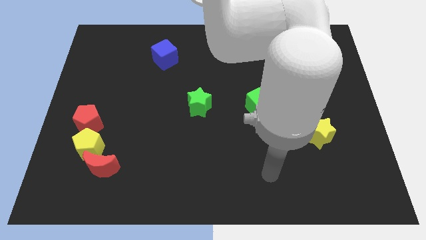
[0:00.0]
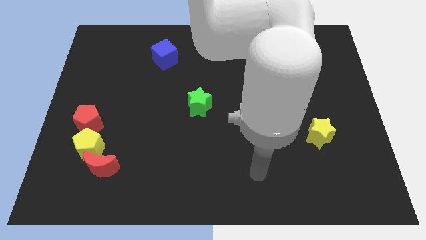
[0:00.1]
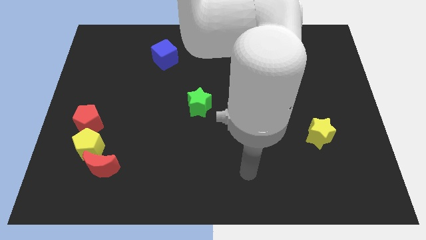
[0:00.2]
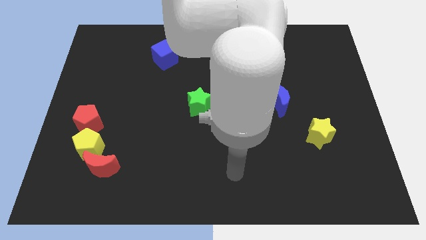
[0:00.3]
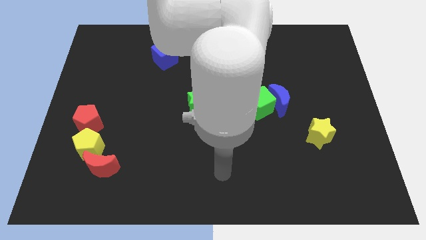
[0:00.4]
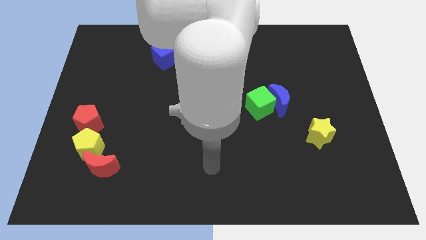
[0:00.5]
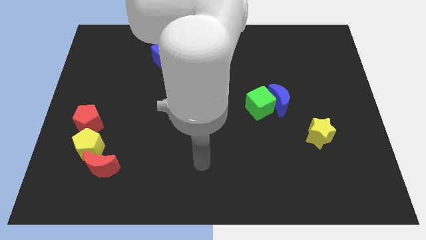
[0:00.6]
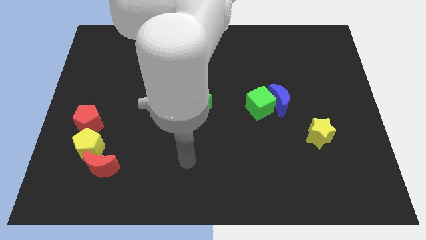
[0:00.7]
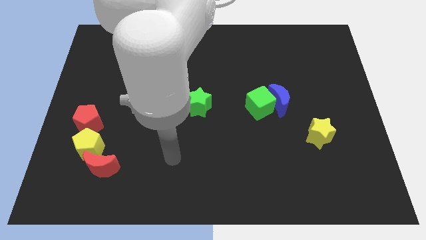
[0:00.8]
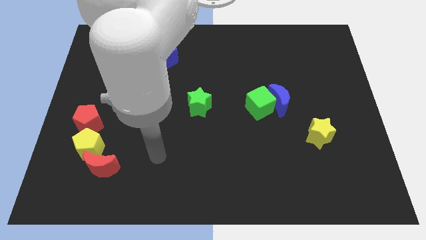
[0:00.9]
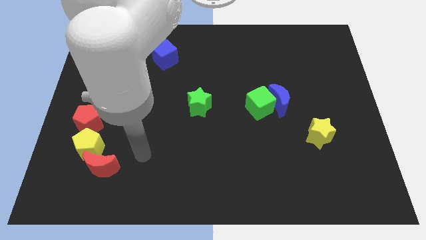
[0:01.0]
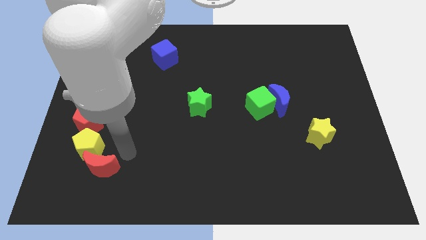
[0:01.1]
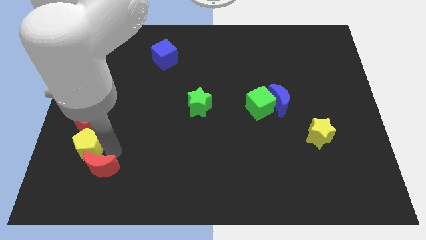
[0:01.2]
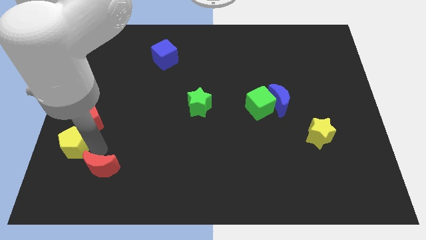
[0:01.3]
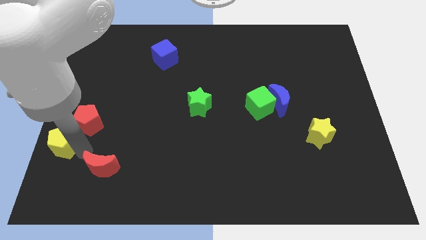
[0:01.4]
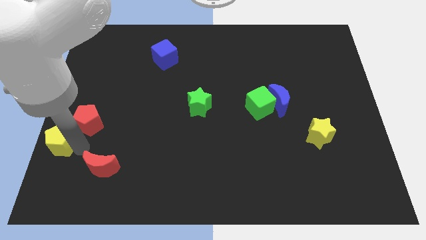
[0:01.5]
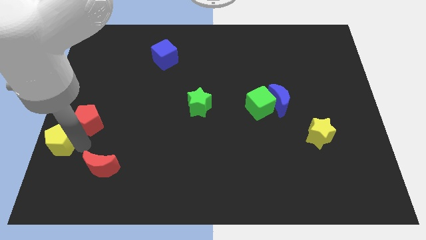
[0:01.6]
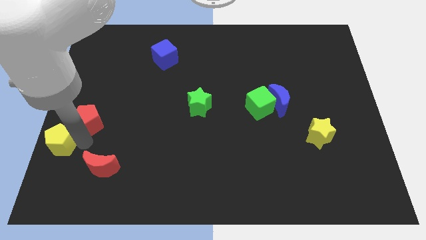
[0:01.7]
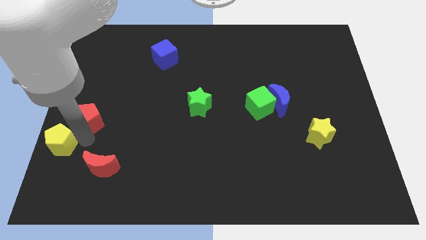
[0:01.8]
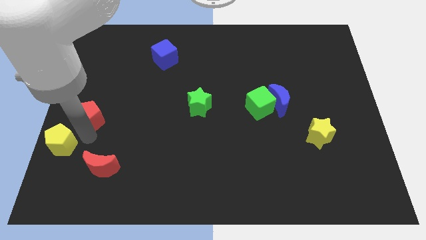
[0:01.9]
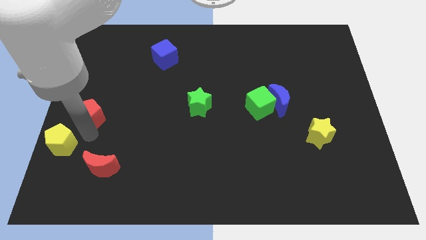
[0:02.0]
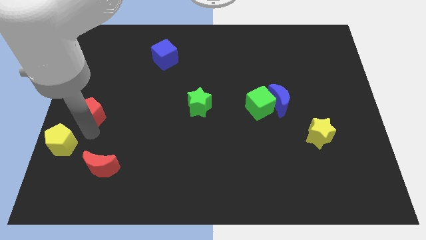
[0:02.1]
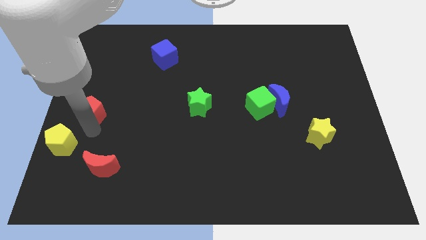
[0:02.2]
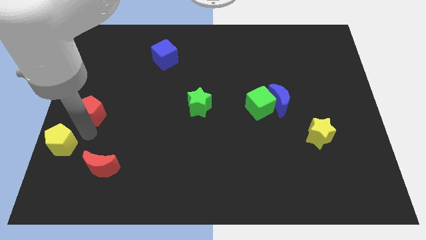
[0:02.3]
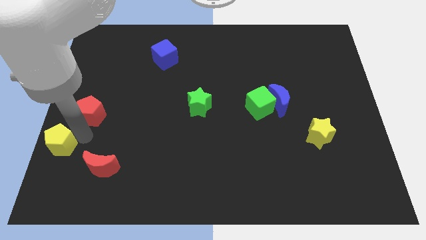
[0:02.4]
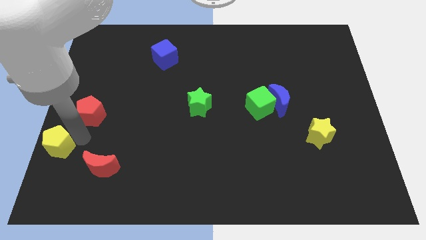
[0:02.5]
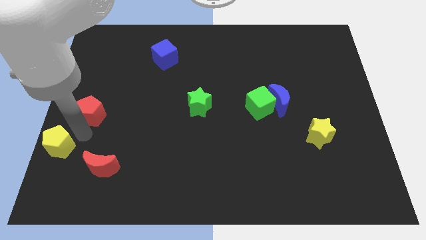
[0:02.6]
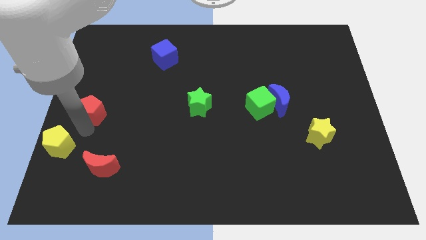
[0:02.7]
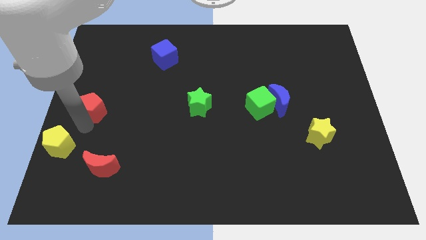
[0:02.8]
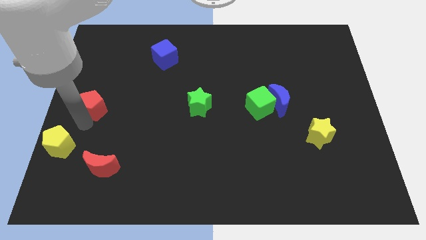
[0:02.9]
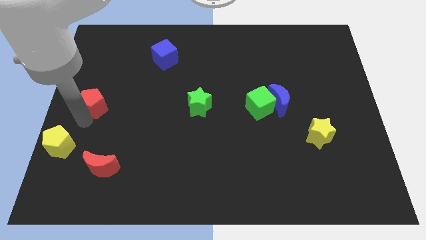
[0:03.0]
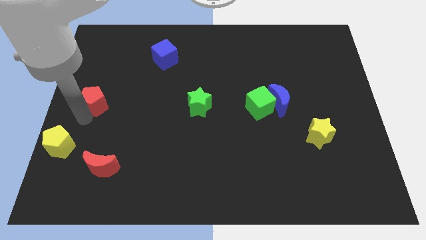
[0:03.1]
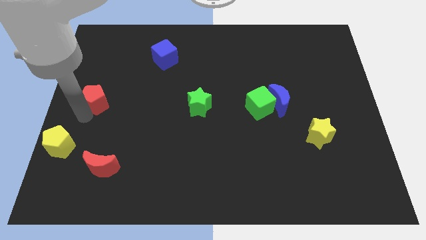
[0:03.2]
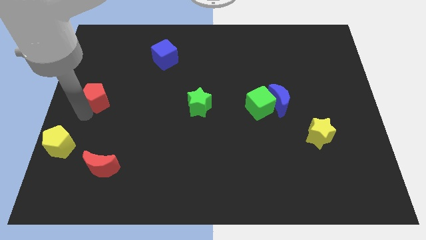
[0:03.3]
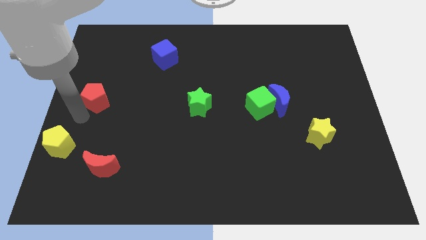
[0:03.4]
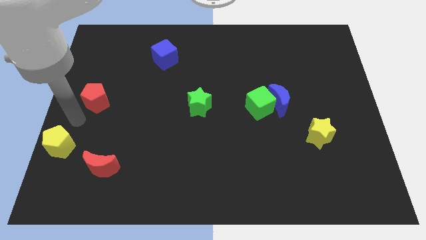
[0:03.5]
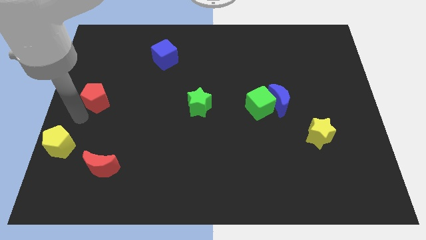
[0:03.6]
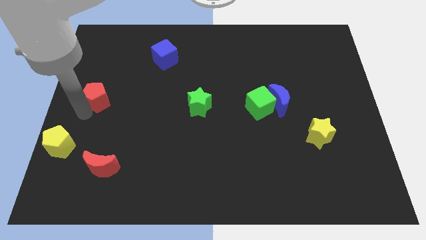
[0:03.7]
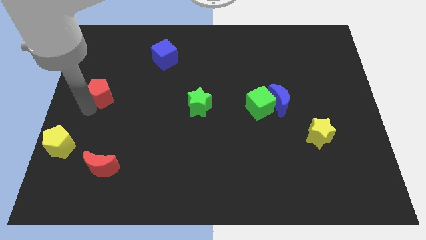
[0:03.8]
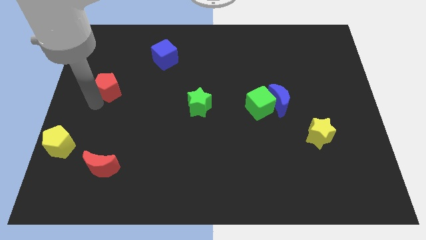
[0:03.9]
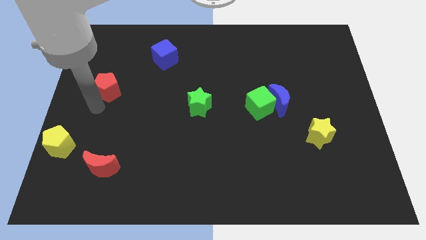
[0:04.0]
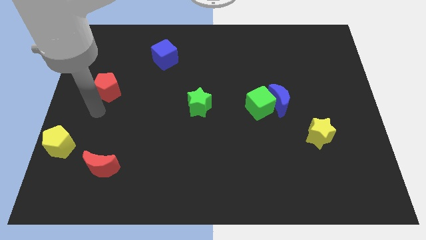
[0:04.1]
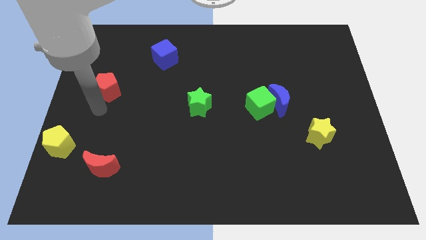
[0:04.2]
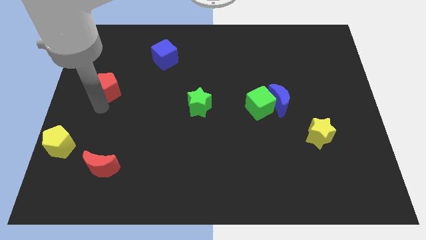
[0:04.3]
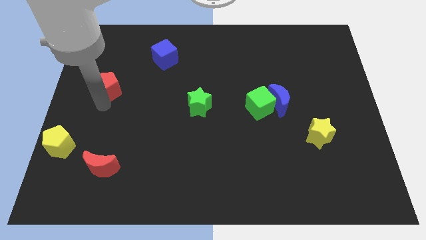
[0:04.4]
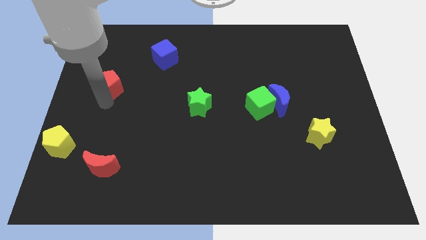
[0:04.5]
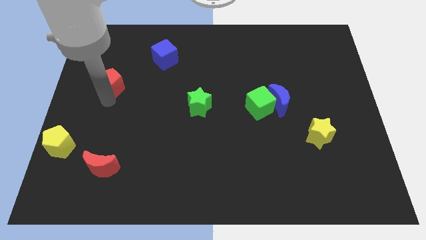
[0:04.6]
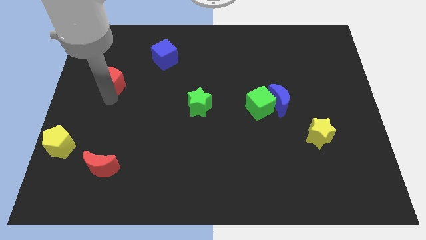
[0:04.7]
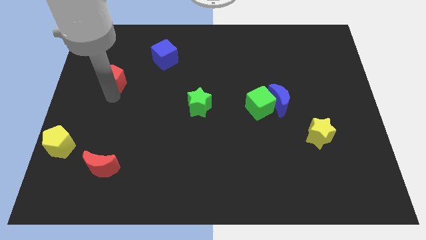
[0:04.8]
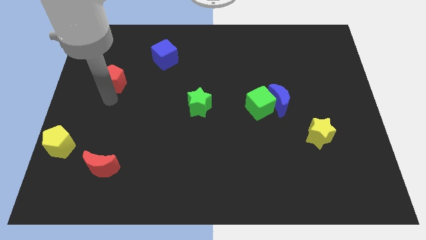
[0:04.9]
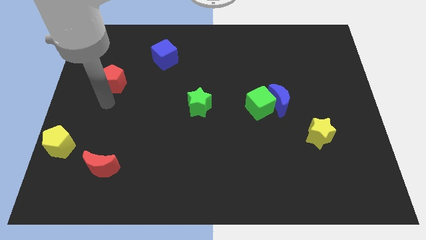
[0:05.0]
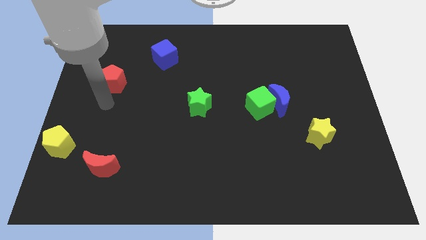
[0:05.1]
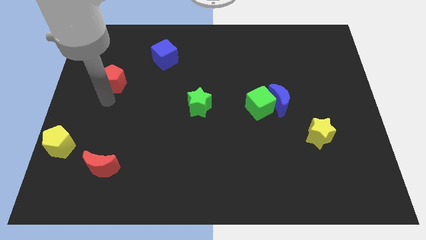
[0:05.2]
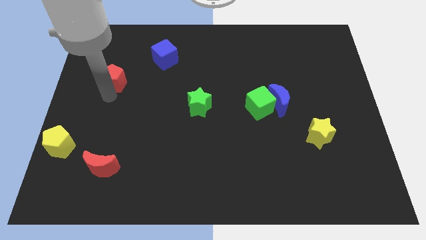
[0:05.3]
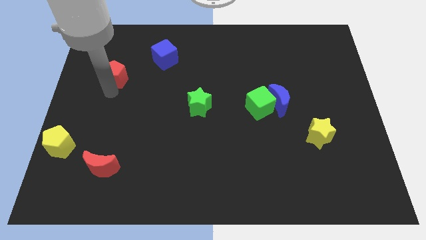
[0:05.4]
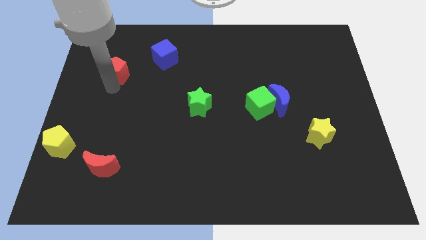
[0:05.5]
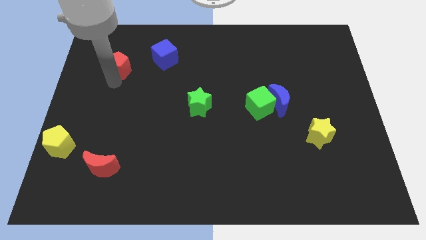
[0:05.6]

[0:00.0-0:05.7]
put the red pentagon just left of the blue cube

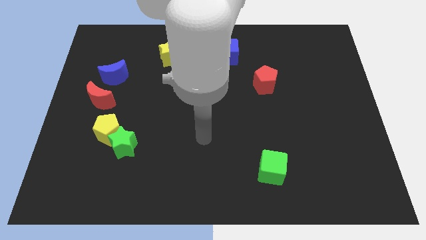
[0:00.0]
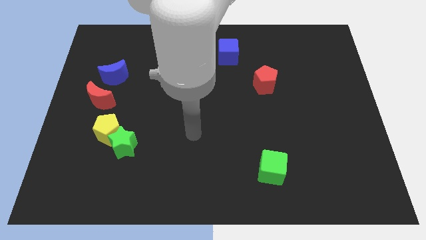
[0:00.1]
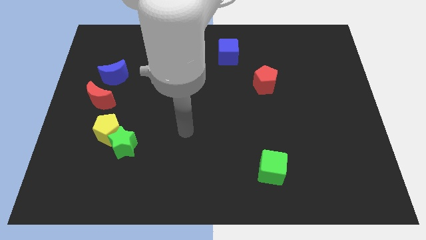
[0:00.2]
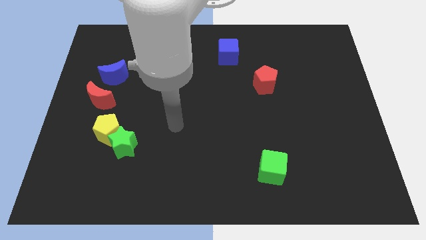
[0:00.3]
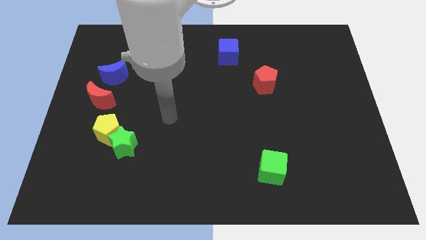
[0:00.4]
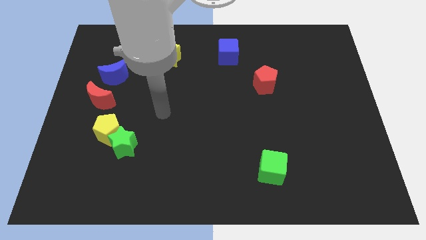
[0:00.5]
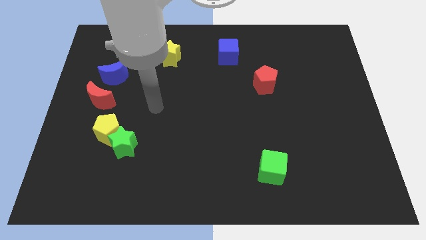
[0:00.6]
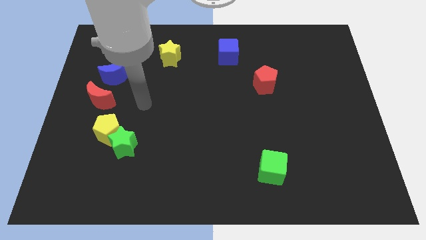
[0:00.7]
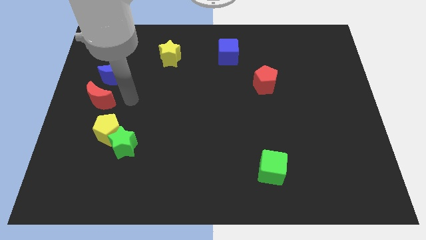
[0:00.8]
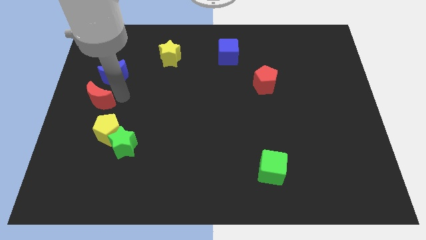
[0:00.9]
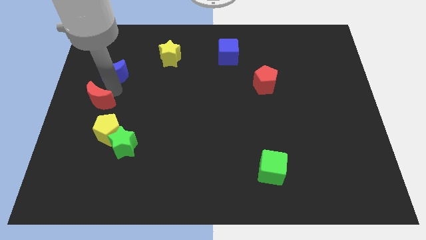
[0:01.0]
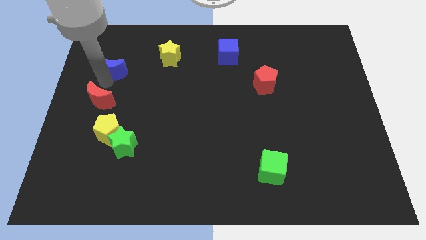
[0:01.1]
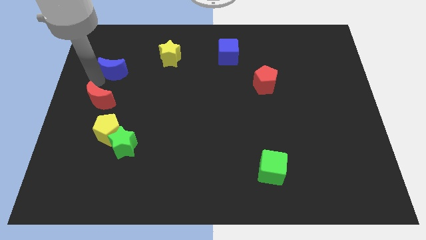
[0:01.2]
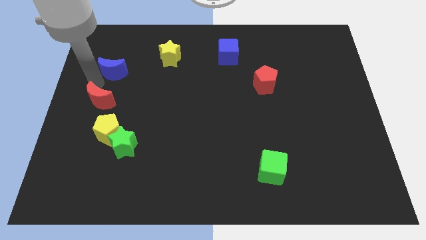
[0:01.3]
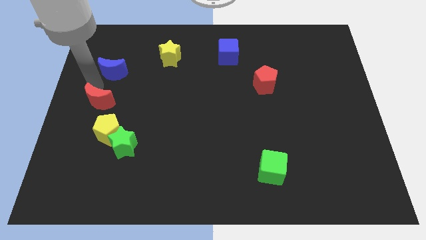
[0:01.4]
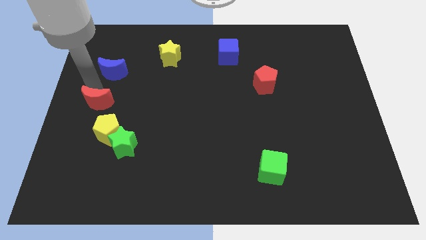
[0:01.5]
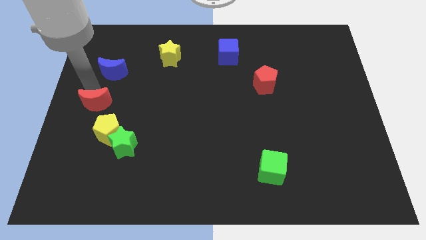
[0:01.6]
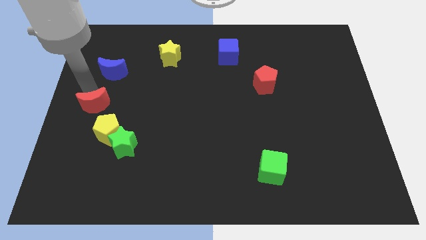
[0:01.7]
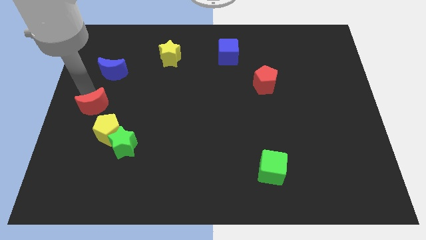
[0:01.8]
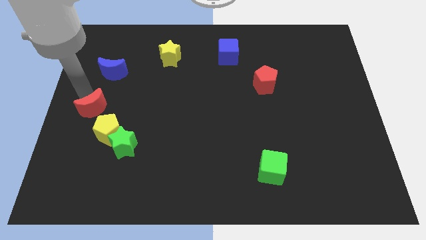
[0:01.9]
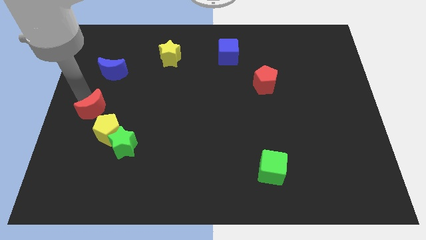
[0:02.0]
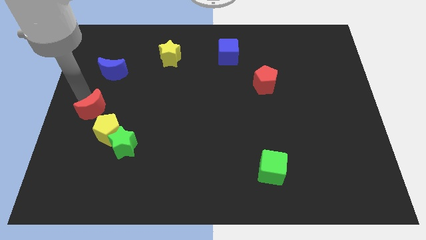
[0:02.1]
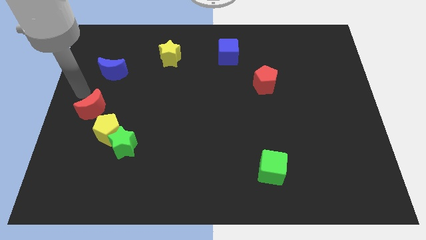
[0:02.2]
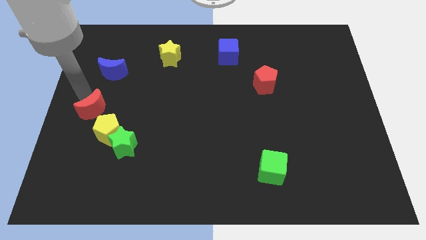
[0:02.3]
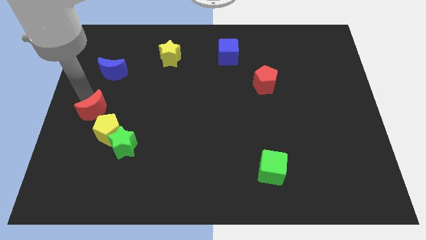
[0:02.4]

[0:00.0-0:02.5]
push the red moon to the top left of the green star
